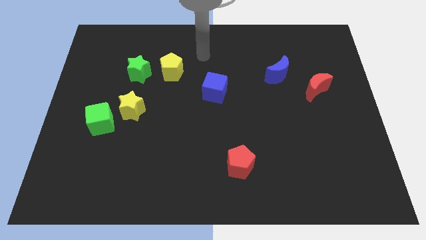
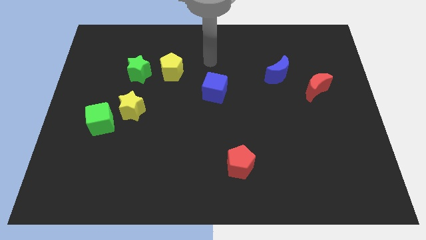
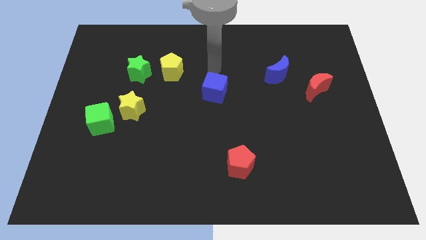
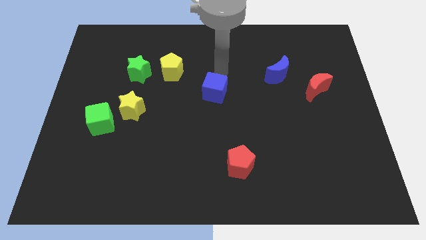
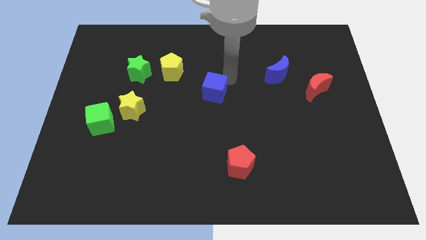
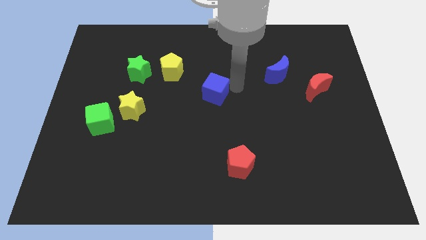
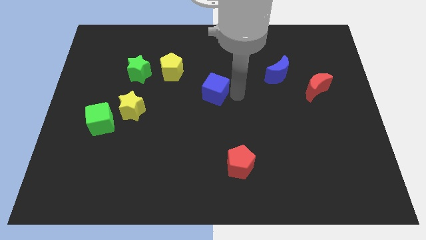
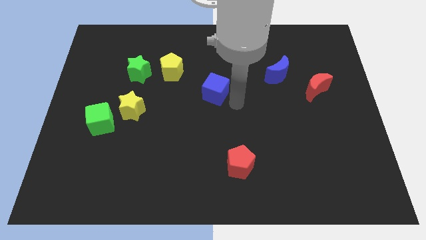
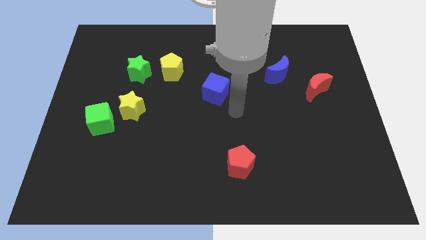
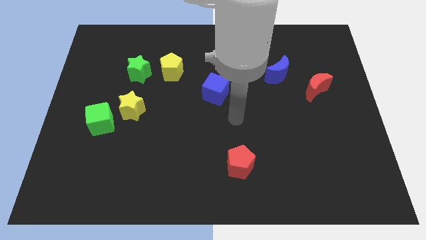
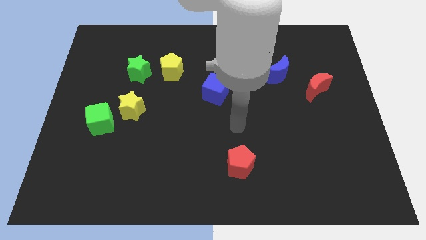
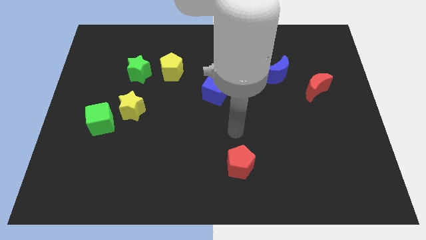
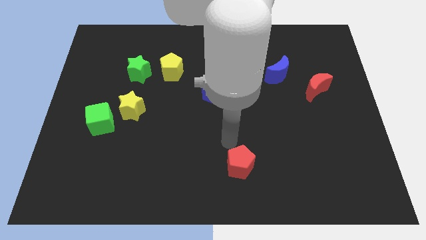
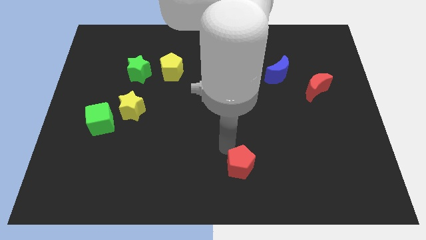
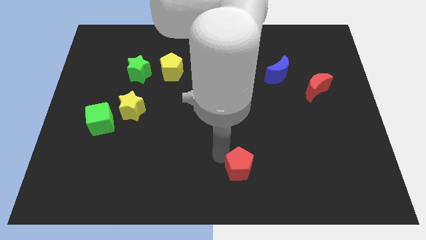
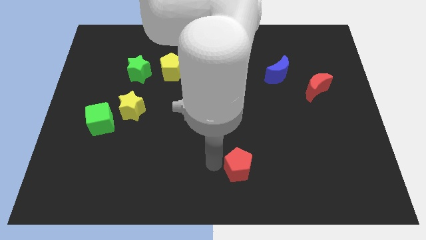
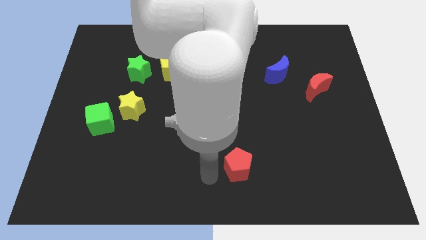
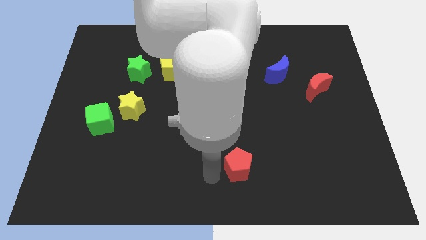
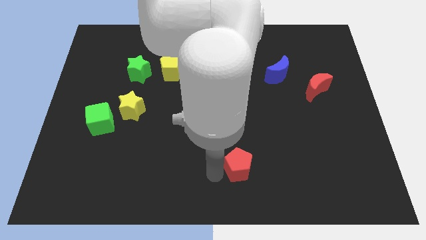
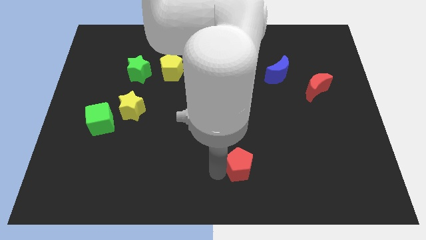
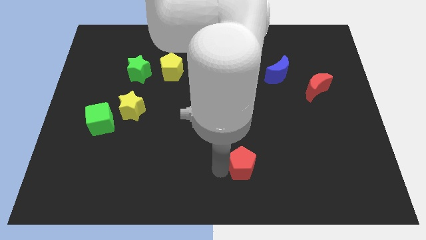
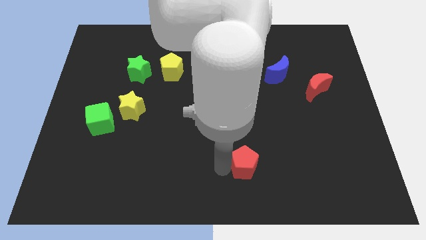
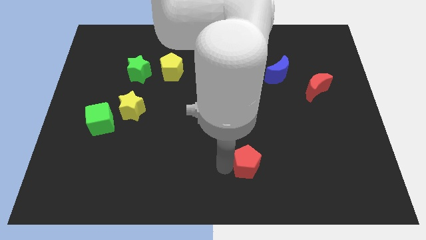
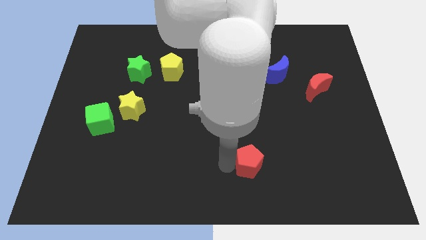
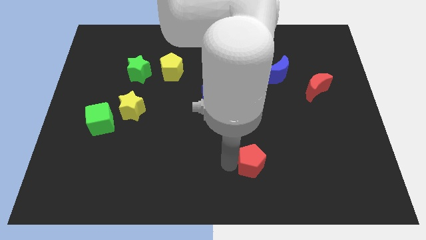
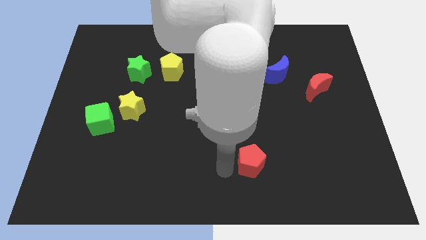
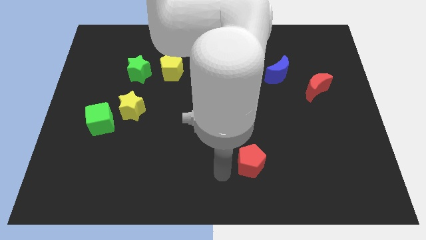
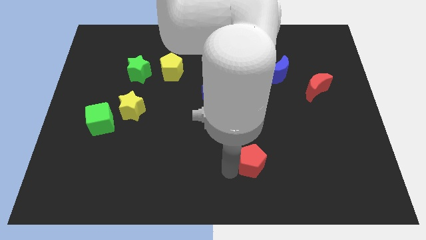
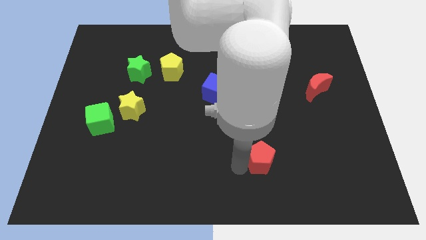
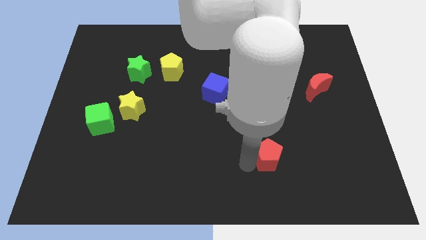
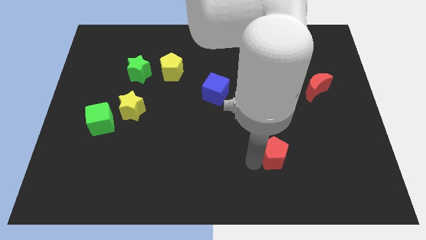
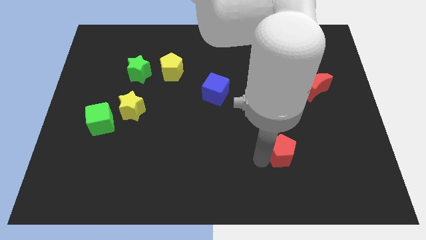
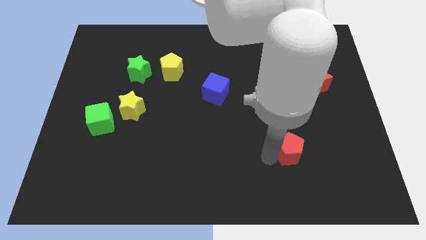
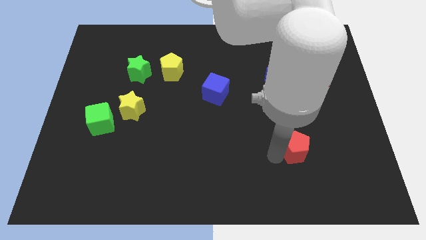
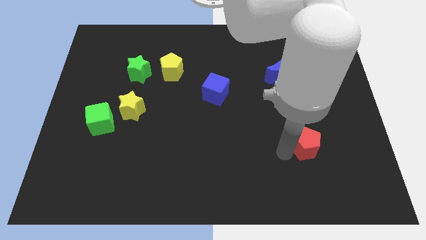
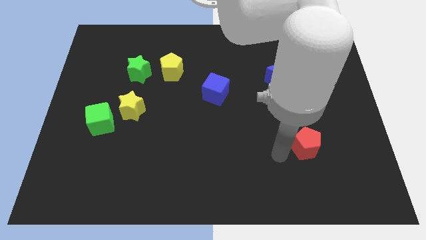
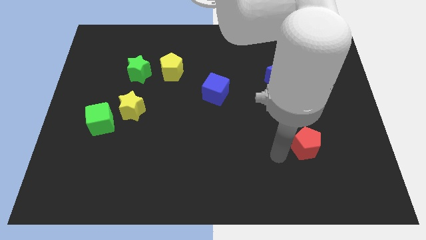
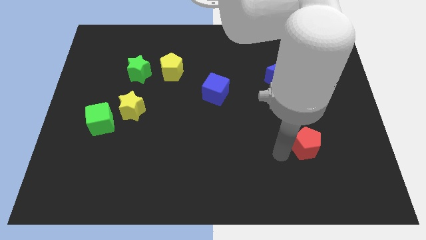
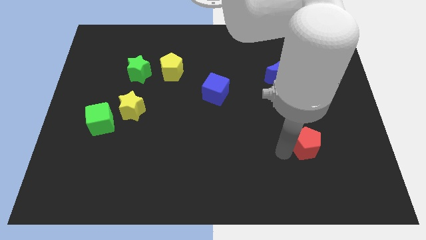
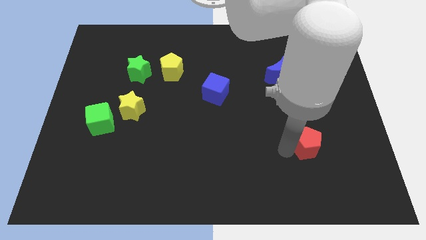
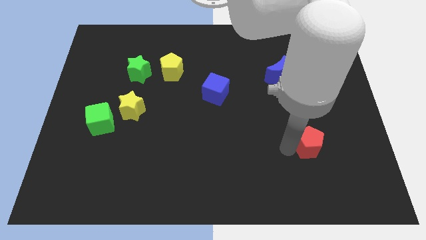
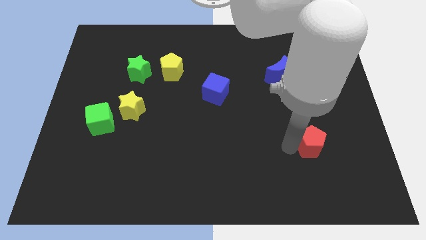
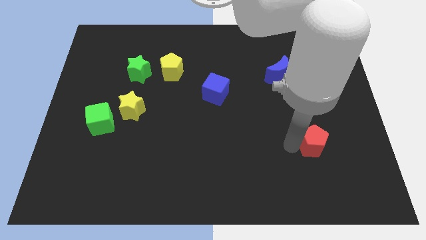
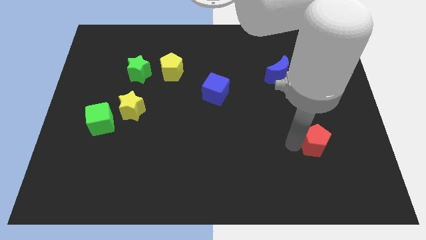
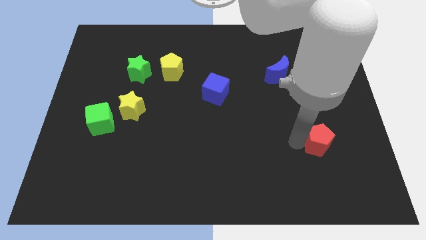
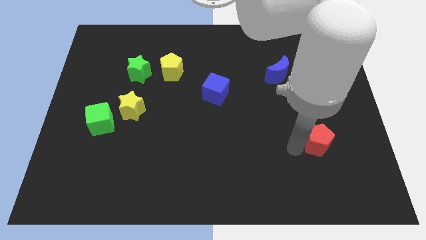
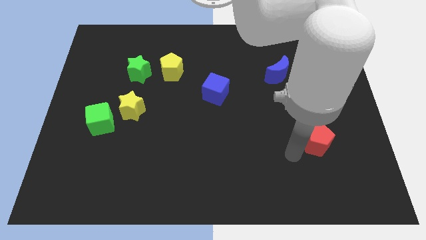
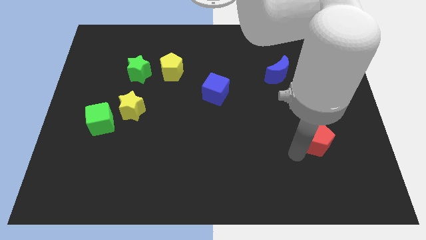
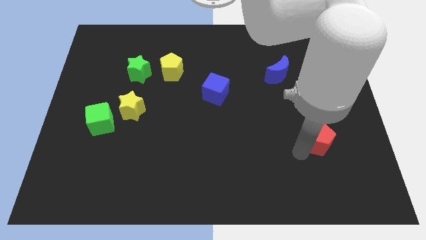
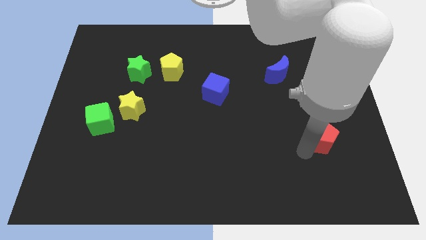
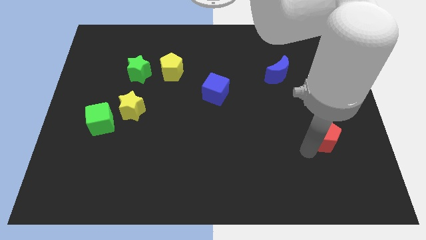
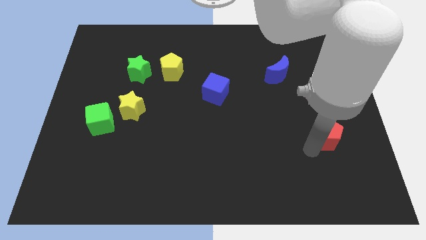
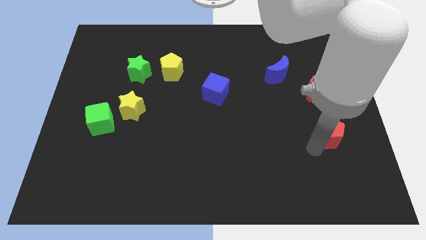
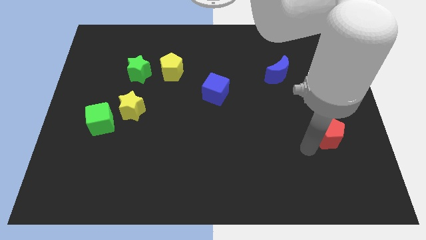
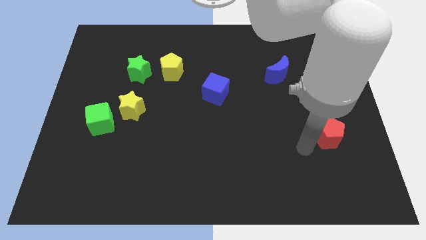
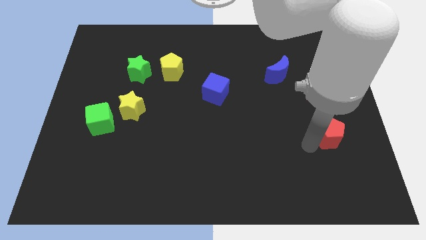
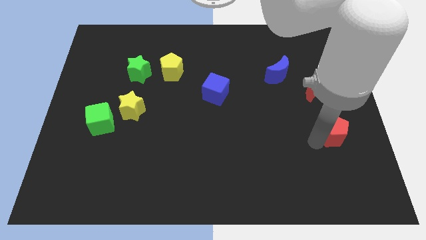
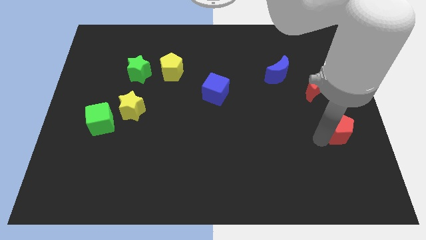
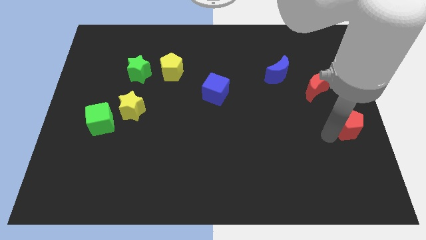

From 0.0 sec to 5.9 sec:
slide the red pentagon to the right side of the board

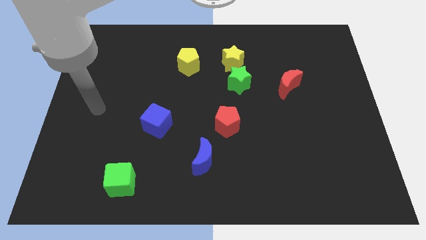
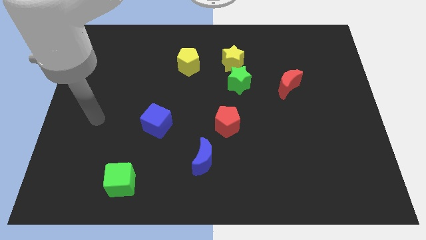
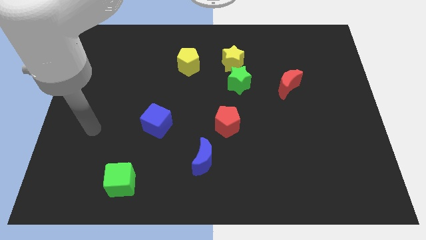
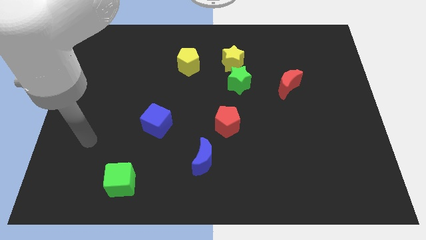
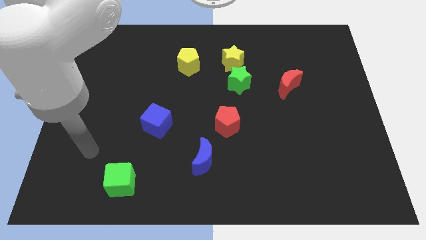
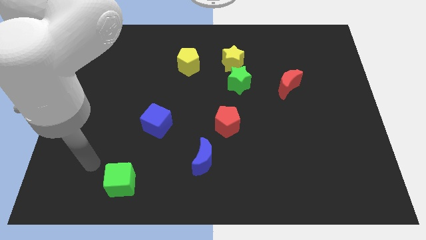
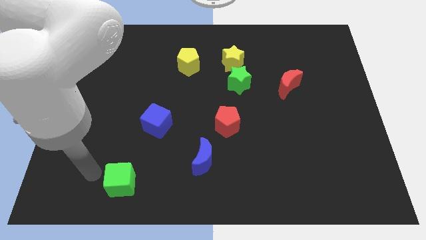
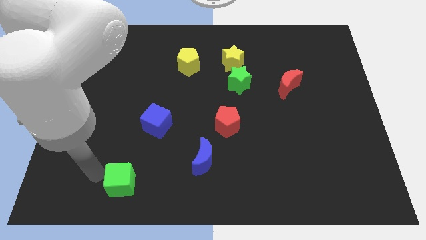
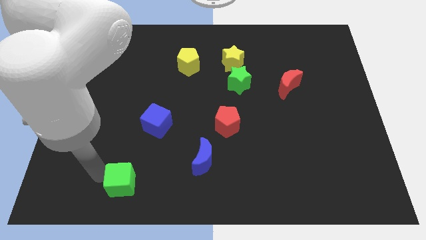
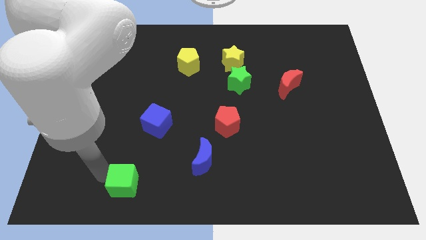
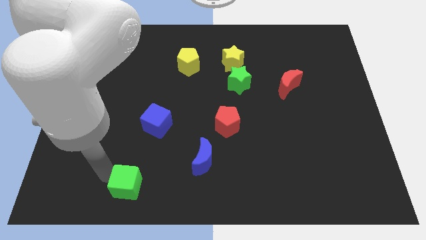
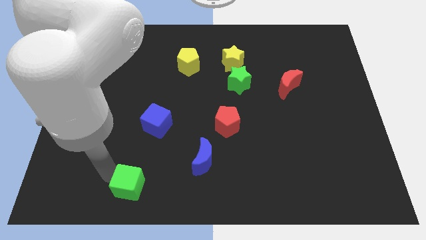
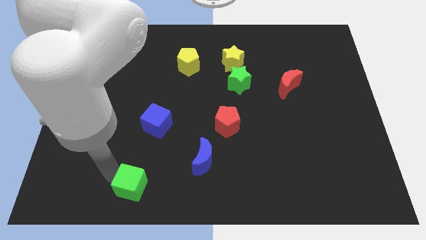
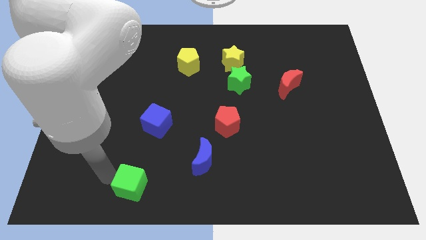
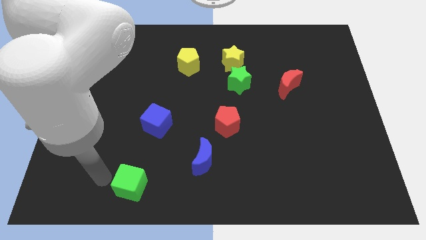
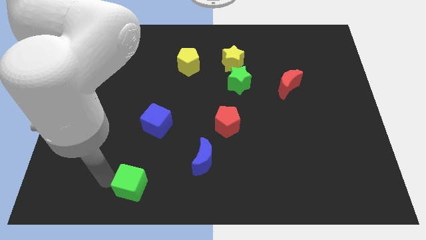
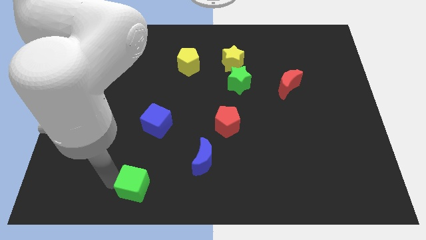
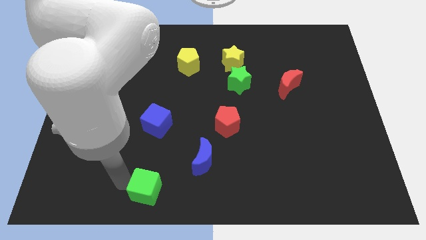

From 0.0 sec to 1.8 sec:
push the green cube to the bottom side
